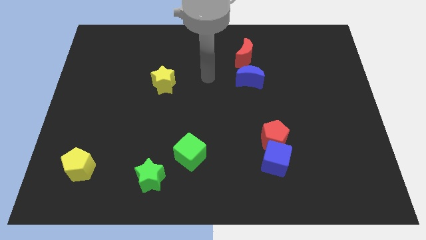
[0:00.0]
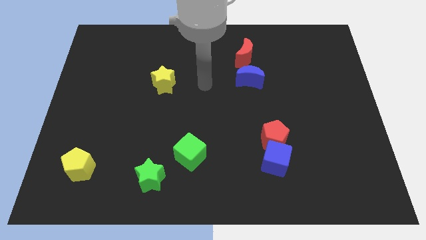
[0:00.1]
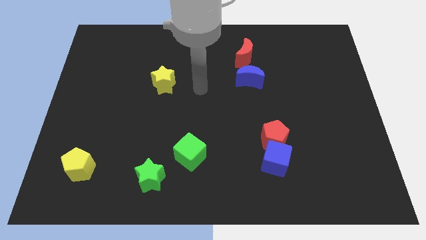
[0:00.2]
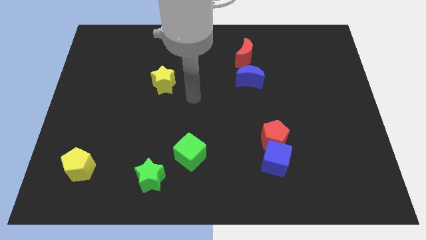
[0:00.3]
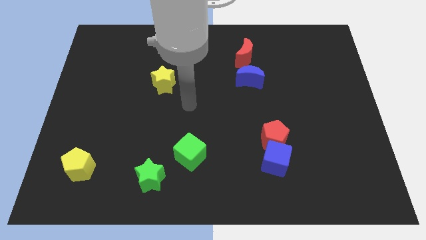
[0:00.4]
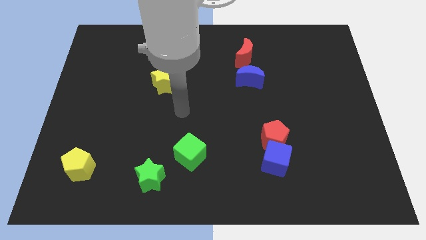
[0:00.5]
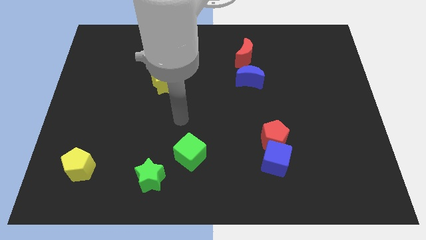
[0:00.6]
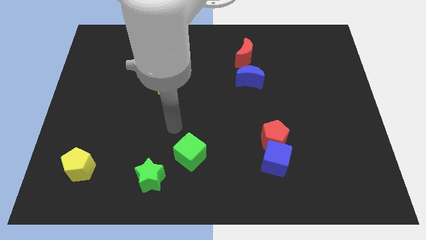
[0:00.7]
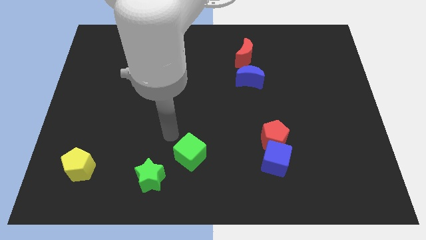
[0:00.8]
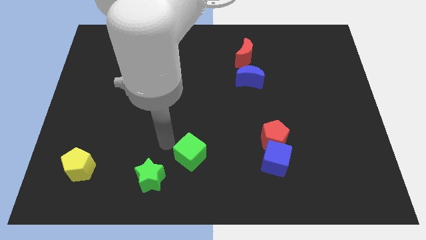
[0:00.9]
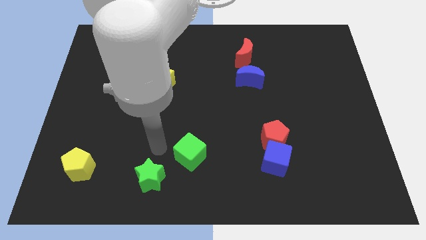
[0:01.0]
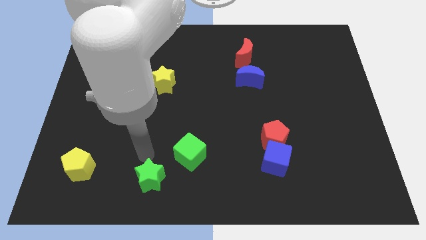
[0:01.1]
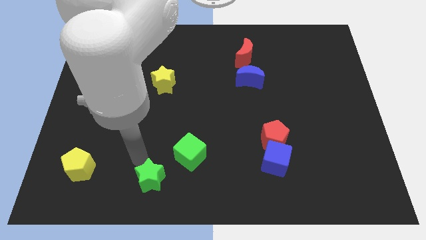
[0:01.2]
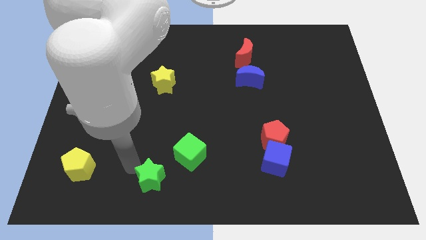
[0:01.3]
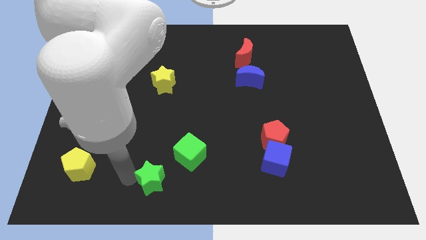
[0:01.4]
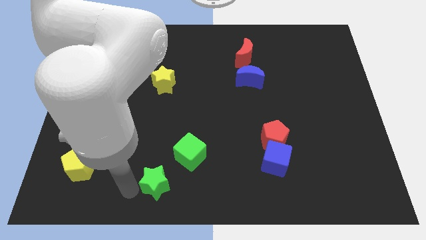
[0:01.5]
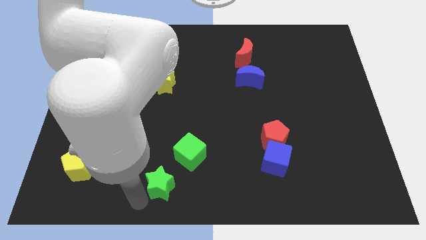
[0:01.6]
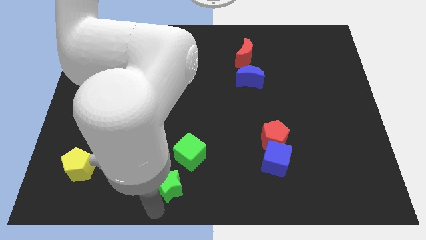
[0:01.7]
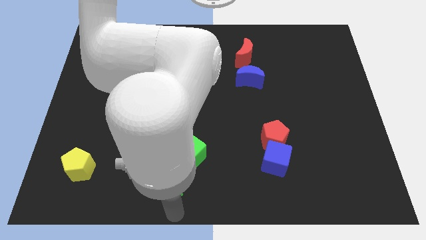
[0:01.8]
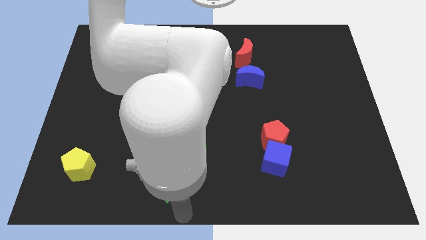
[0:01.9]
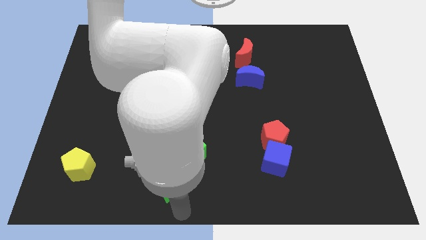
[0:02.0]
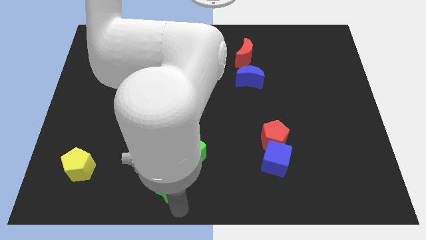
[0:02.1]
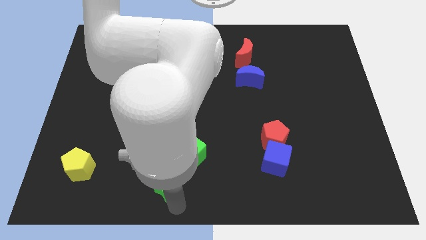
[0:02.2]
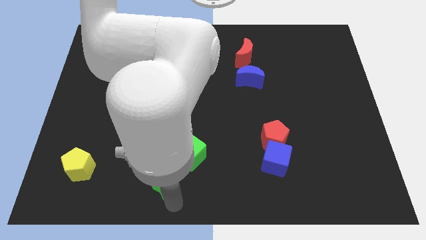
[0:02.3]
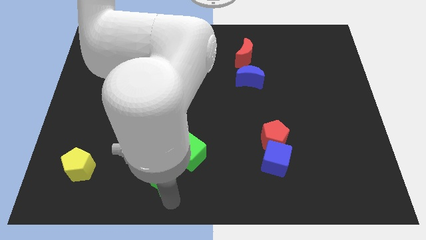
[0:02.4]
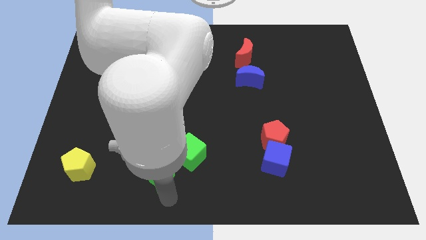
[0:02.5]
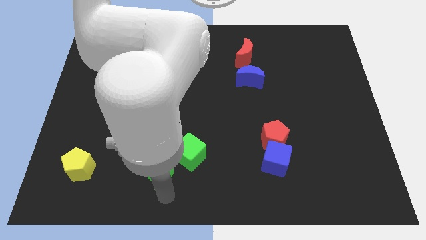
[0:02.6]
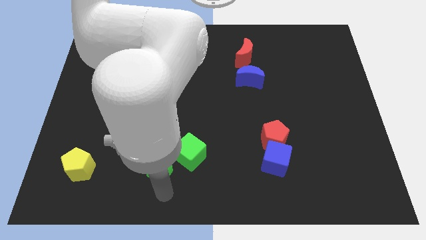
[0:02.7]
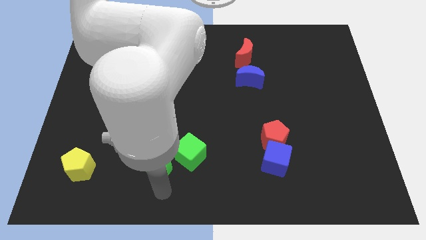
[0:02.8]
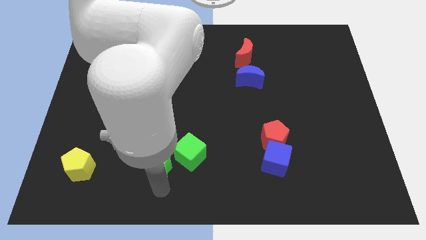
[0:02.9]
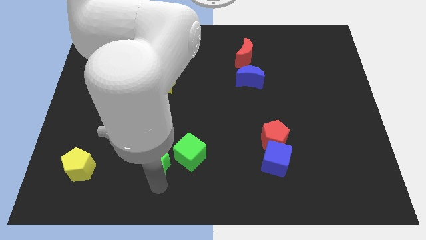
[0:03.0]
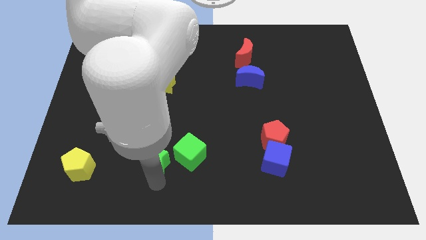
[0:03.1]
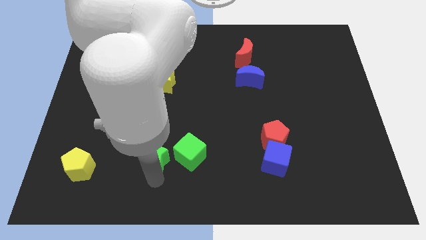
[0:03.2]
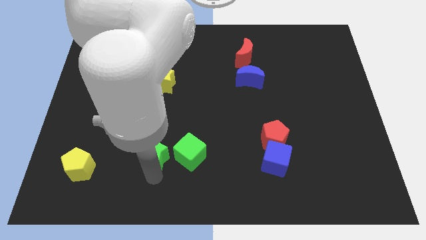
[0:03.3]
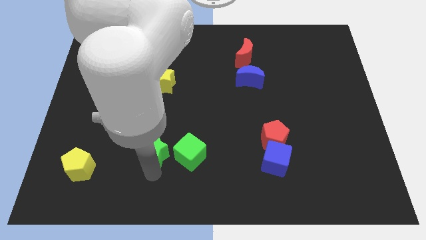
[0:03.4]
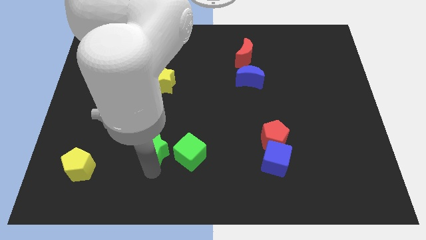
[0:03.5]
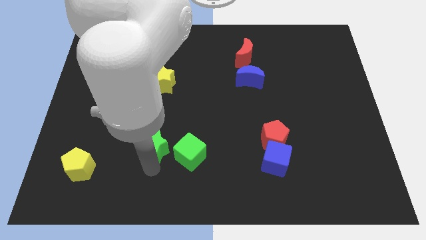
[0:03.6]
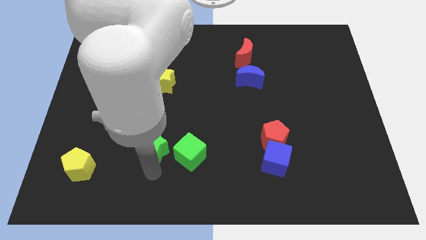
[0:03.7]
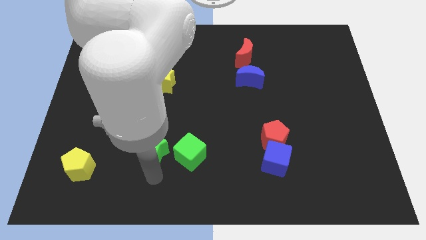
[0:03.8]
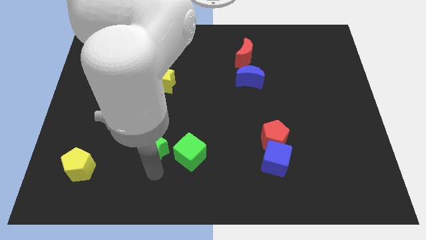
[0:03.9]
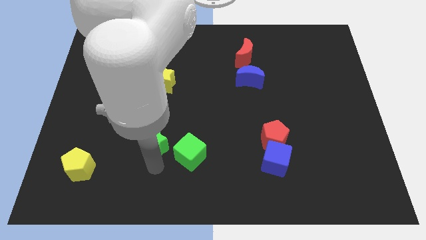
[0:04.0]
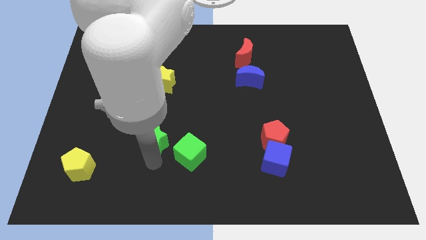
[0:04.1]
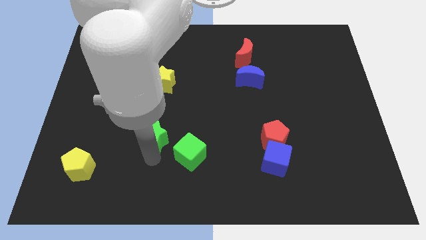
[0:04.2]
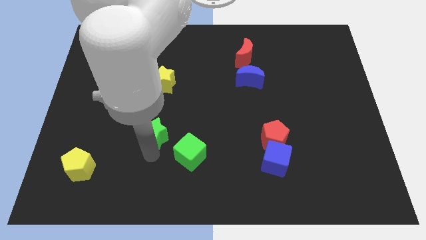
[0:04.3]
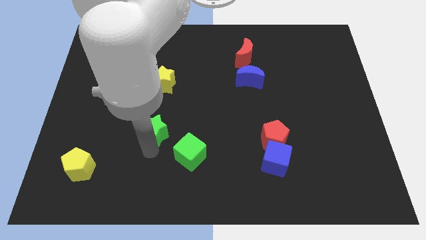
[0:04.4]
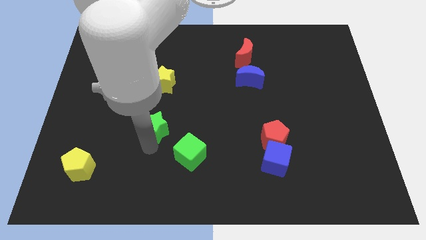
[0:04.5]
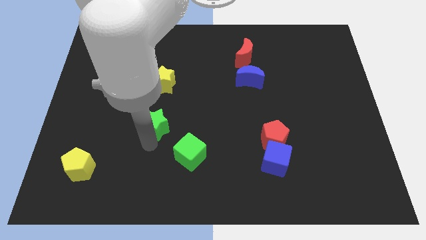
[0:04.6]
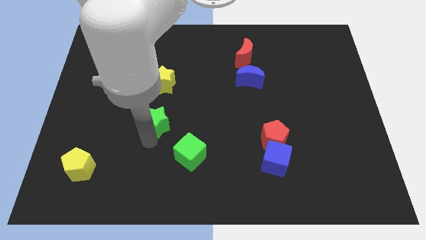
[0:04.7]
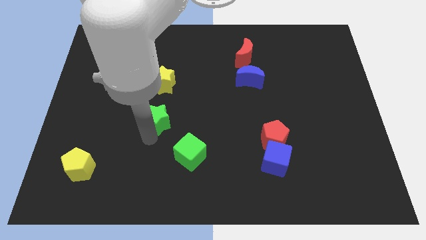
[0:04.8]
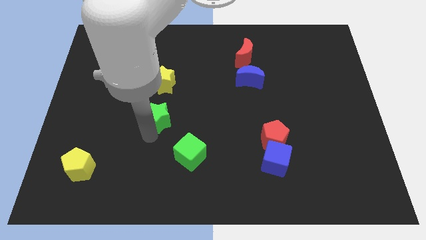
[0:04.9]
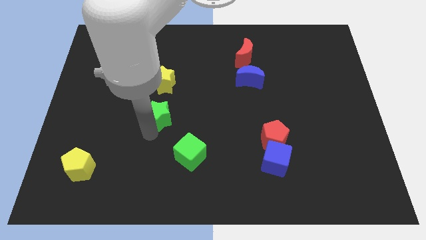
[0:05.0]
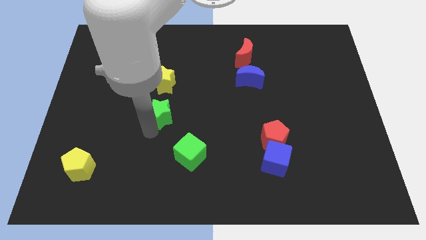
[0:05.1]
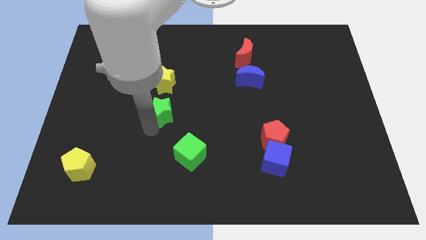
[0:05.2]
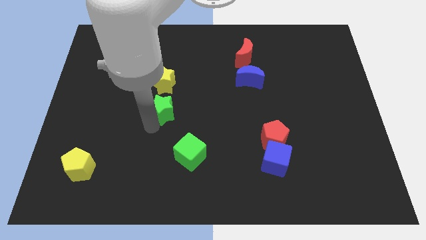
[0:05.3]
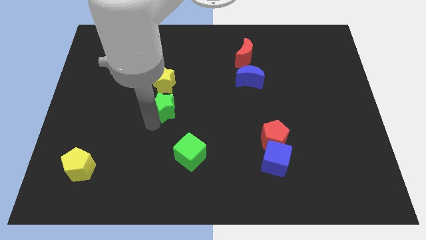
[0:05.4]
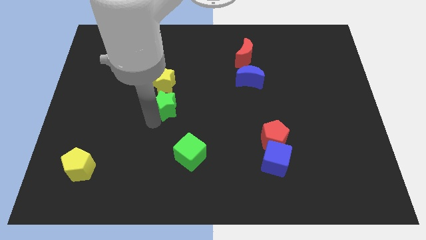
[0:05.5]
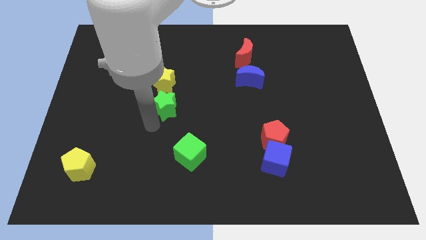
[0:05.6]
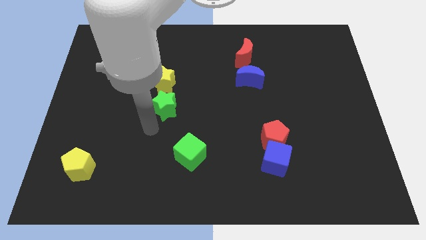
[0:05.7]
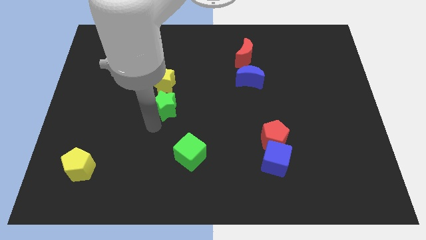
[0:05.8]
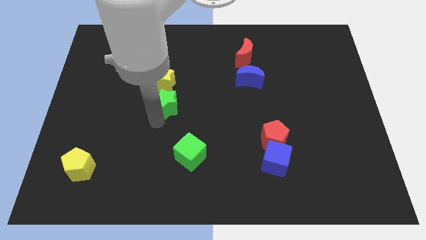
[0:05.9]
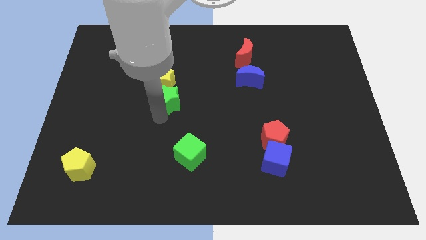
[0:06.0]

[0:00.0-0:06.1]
slide the green star upwards

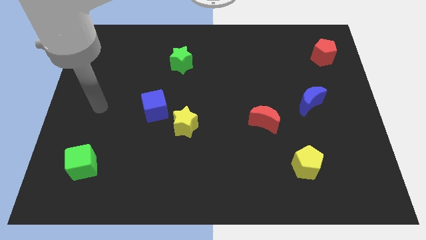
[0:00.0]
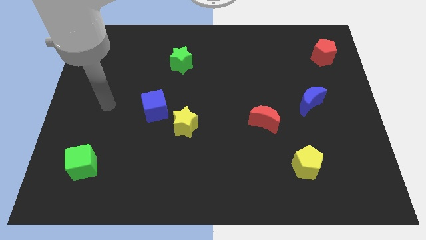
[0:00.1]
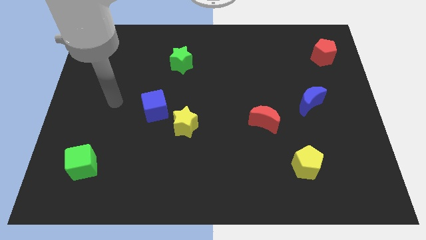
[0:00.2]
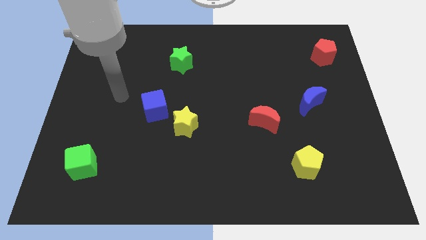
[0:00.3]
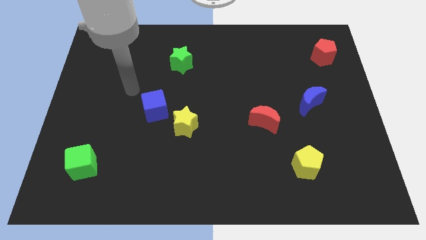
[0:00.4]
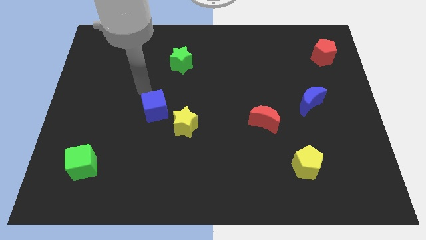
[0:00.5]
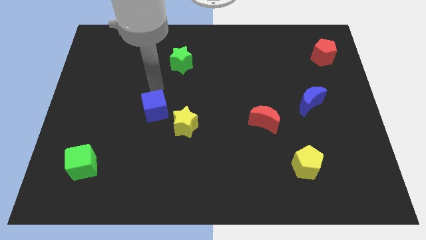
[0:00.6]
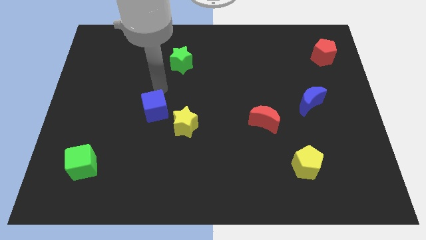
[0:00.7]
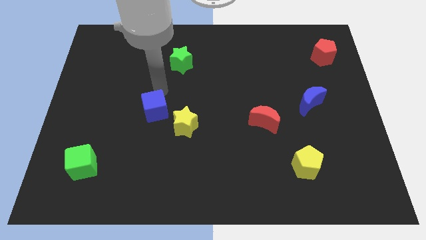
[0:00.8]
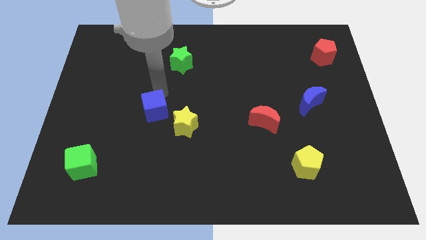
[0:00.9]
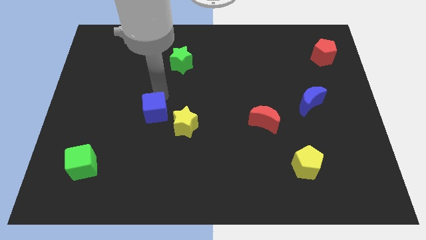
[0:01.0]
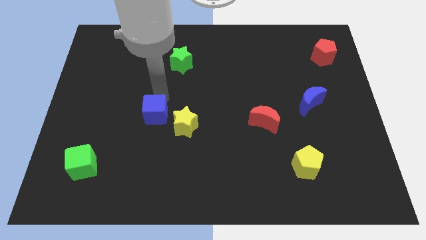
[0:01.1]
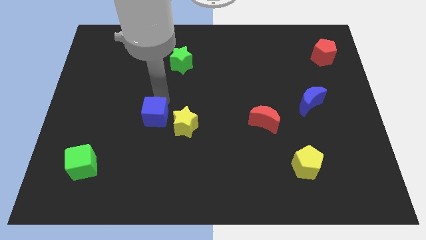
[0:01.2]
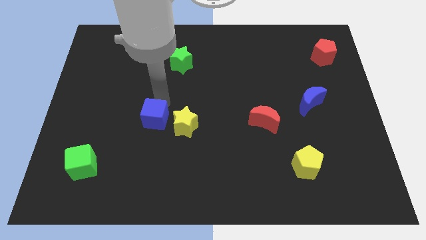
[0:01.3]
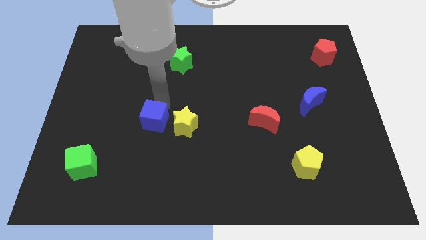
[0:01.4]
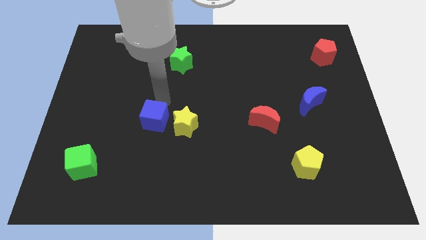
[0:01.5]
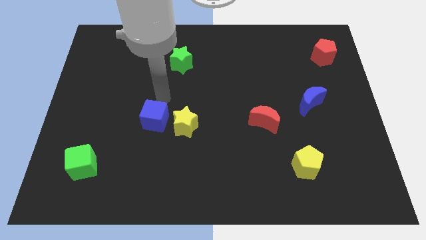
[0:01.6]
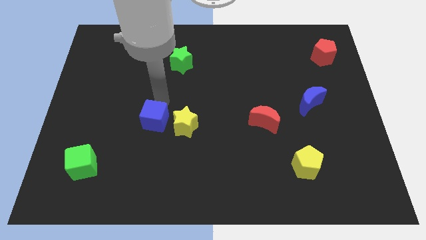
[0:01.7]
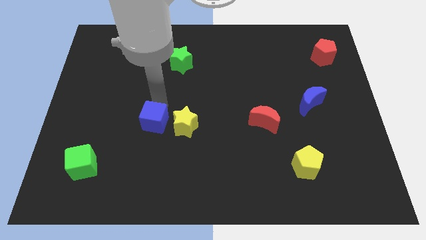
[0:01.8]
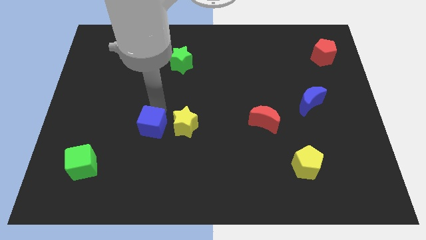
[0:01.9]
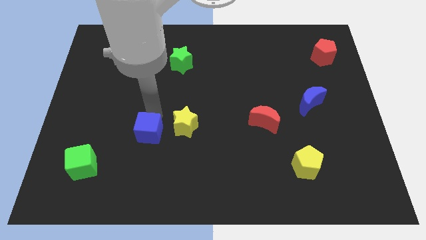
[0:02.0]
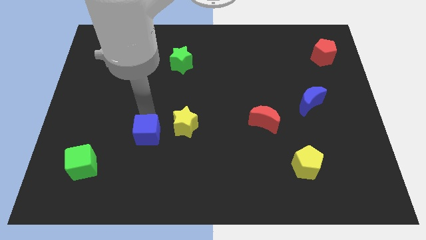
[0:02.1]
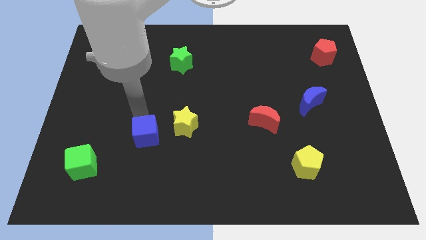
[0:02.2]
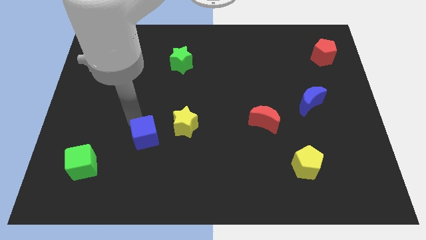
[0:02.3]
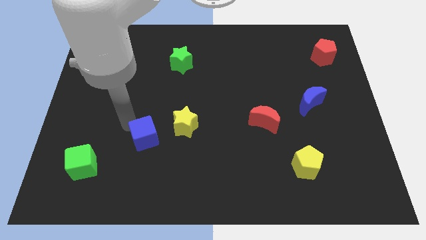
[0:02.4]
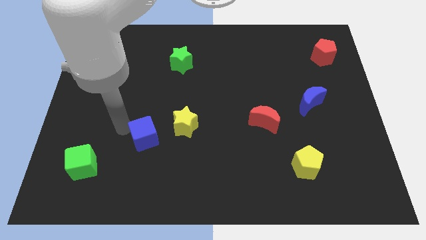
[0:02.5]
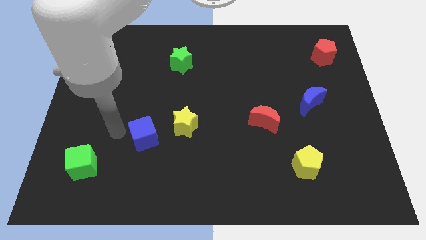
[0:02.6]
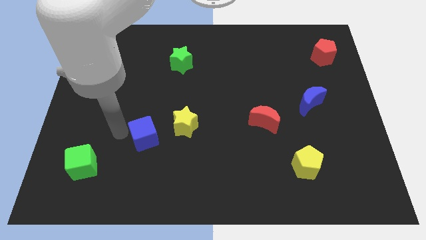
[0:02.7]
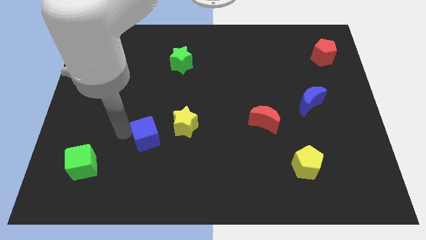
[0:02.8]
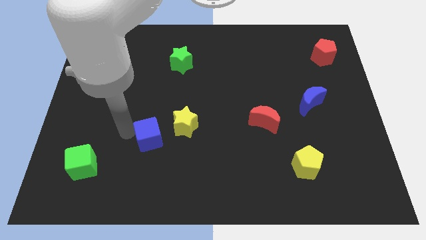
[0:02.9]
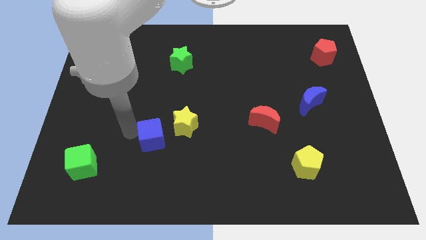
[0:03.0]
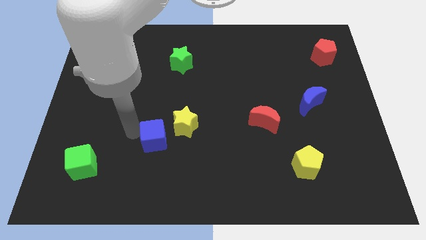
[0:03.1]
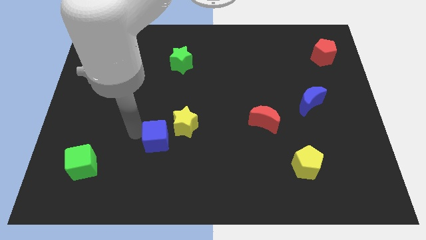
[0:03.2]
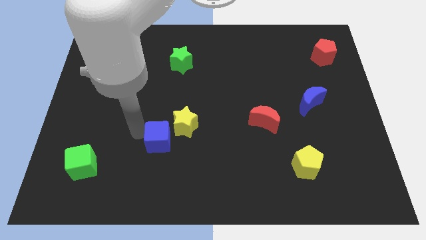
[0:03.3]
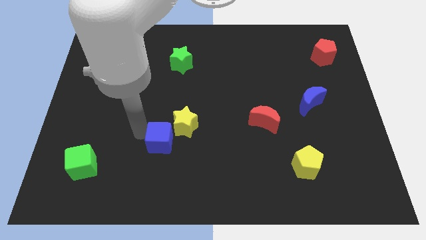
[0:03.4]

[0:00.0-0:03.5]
slightly move the blue cube downwards and then to the right
